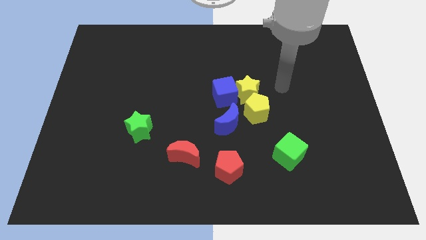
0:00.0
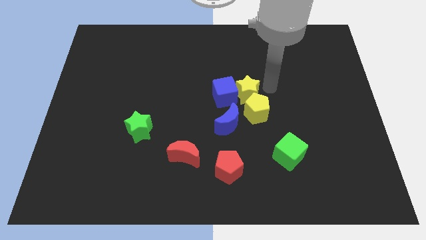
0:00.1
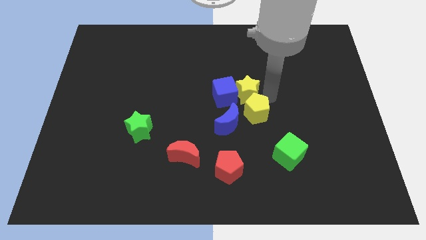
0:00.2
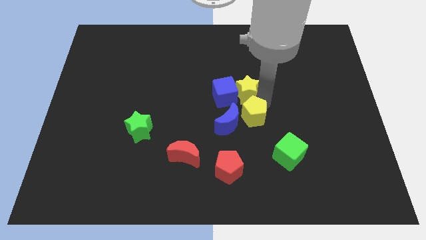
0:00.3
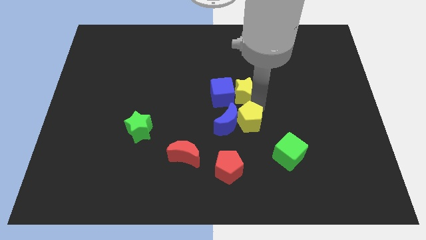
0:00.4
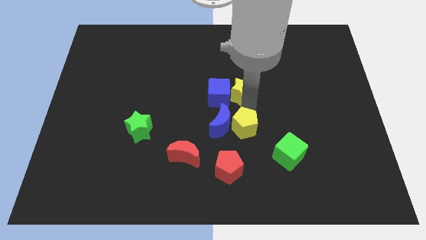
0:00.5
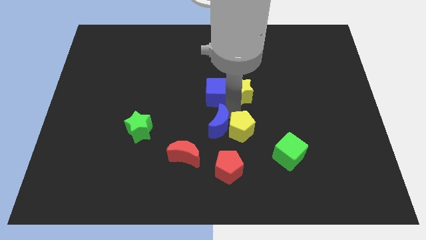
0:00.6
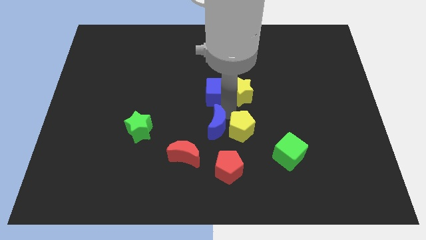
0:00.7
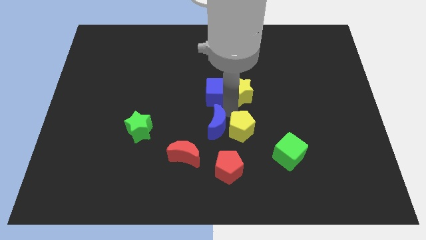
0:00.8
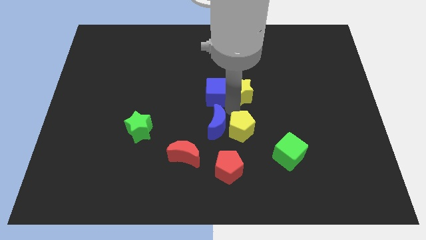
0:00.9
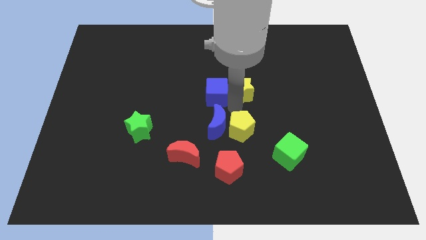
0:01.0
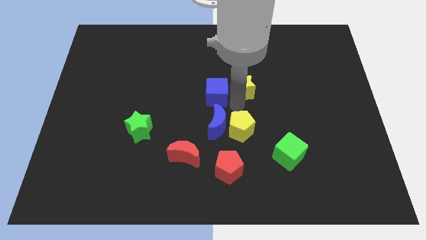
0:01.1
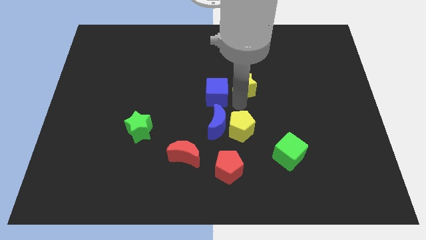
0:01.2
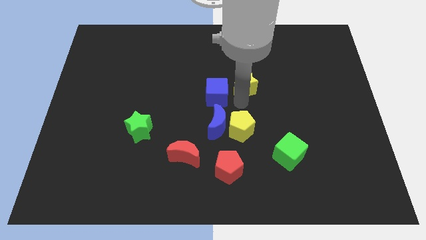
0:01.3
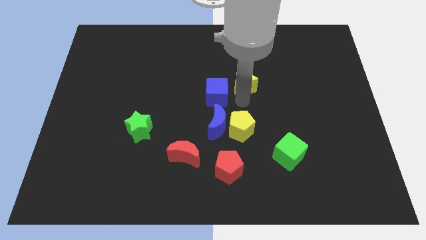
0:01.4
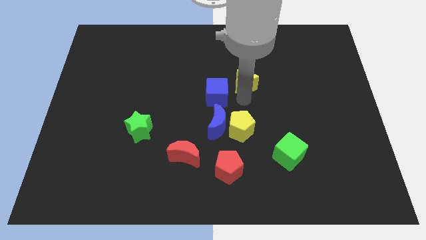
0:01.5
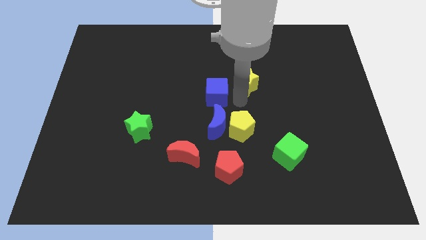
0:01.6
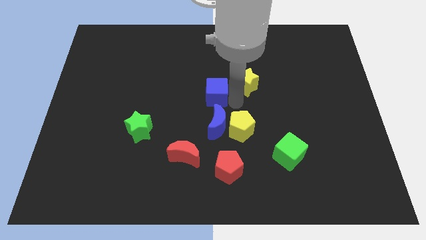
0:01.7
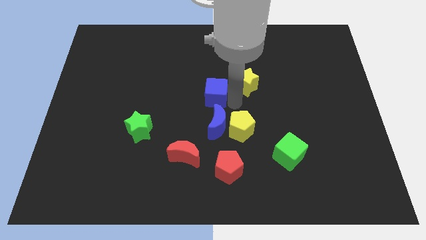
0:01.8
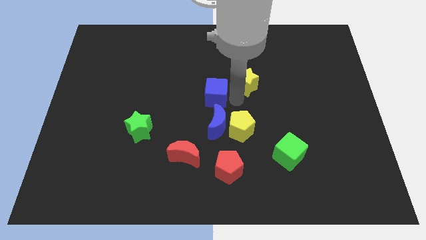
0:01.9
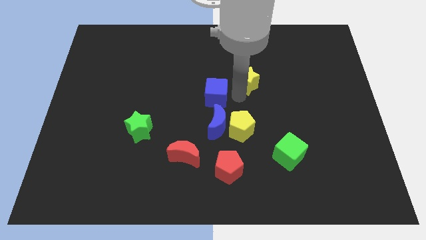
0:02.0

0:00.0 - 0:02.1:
move the yellow star away from the blue cube and yellow pentagon

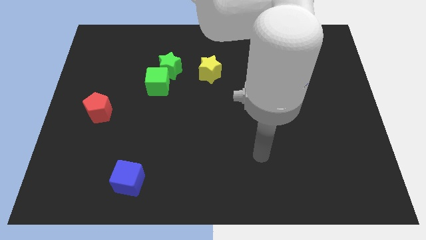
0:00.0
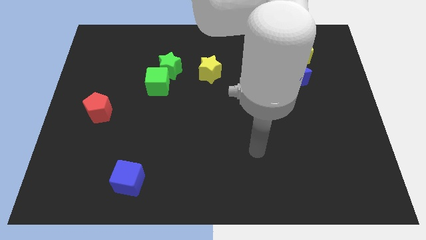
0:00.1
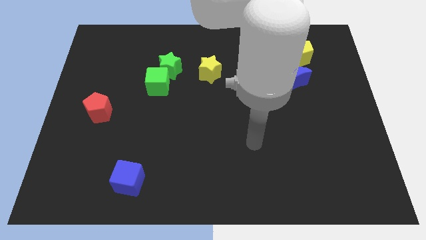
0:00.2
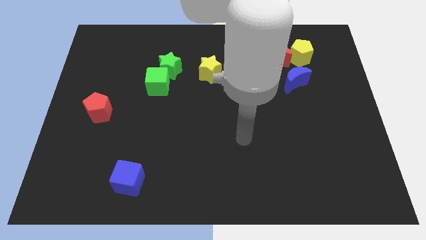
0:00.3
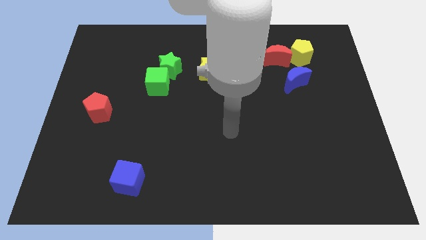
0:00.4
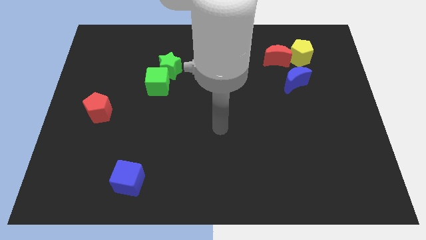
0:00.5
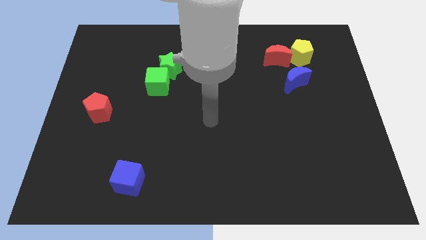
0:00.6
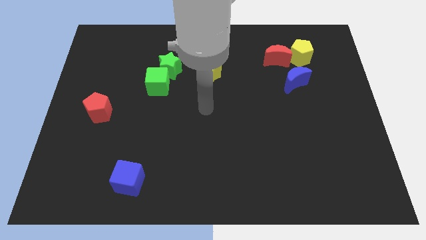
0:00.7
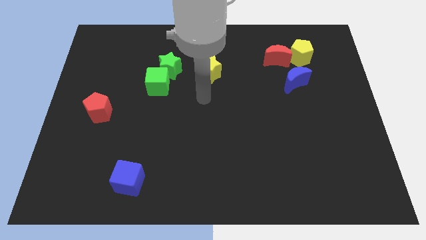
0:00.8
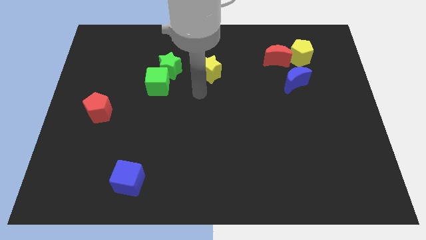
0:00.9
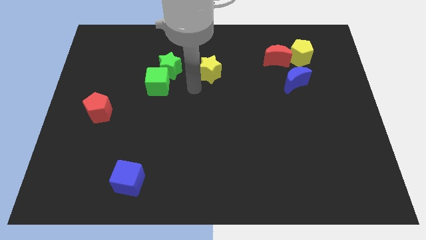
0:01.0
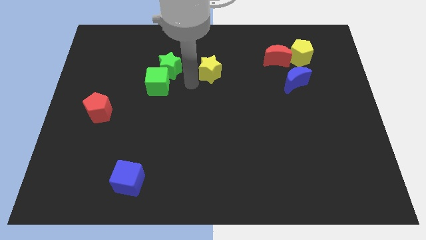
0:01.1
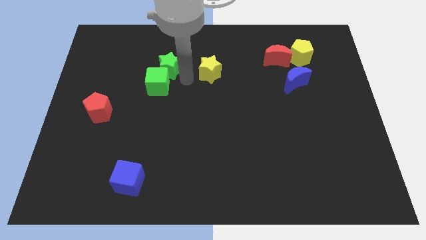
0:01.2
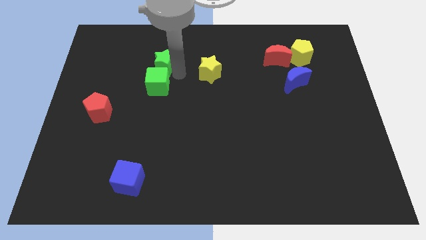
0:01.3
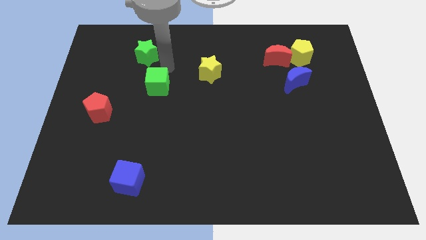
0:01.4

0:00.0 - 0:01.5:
move the green cube away from the green star

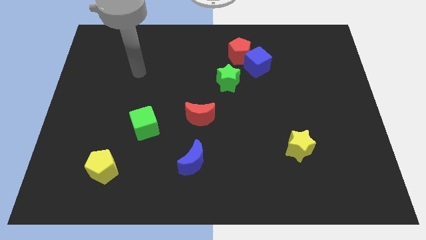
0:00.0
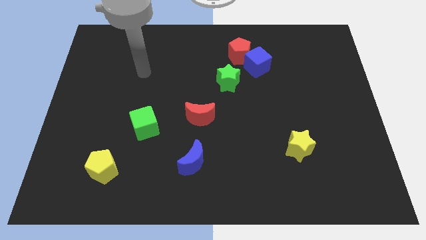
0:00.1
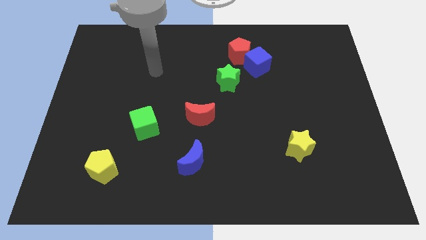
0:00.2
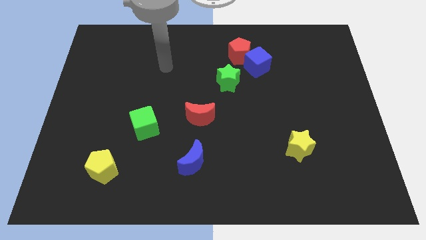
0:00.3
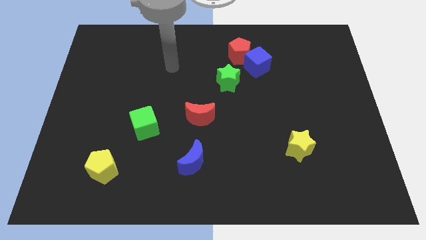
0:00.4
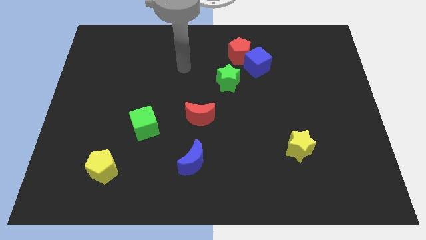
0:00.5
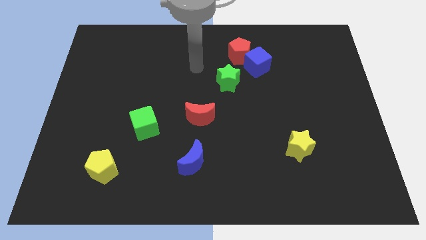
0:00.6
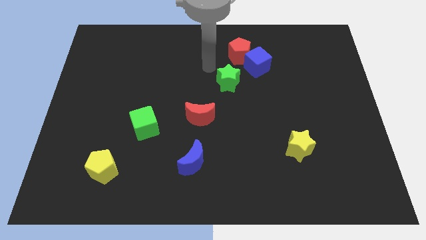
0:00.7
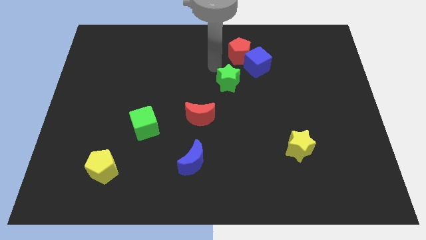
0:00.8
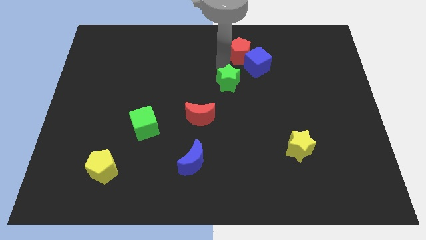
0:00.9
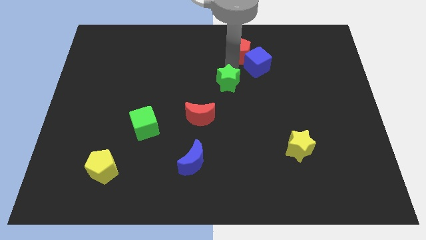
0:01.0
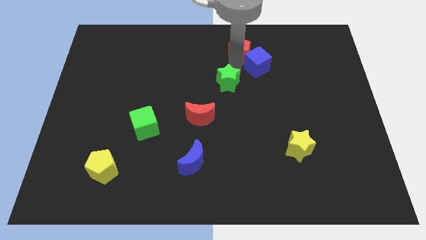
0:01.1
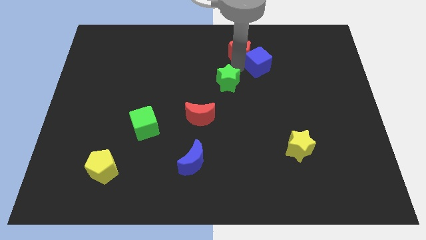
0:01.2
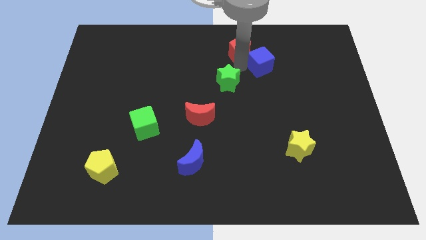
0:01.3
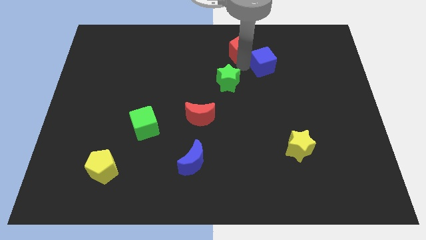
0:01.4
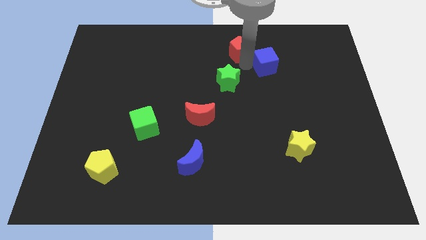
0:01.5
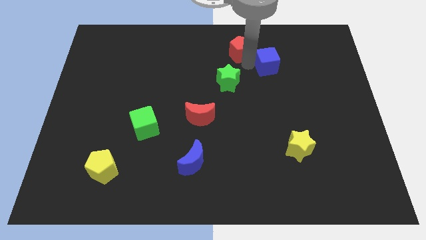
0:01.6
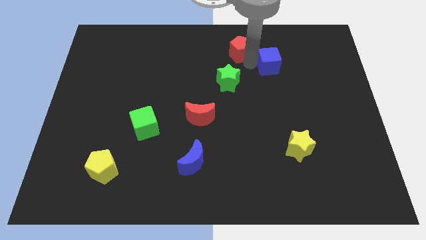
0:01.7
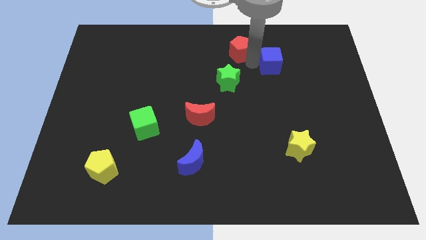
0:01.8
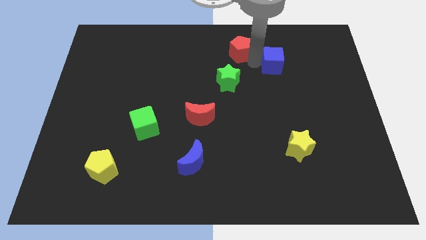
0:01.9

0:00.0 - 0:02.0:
pull the blue cube apart from the red pentagon and green star

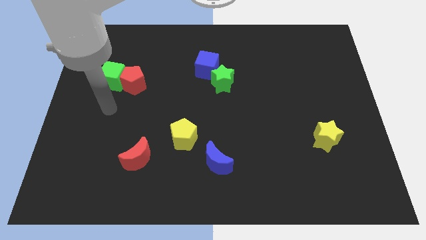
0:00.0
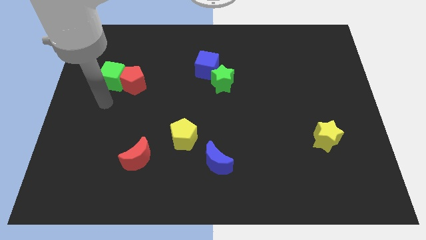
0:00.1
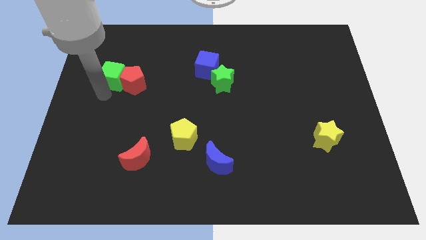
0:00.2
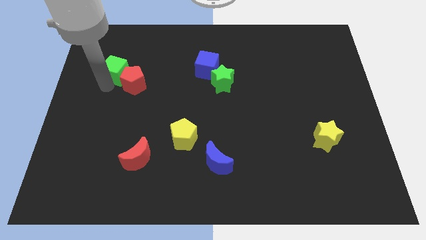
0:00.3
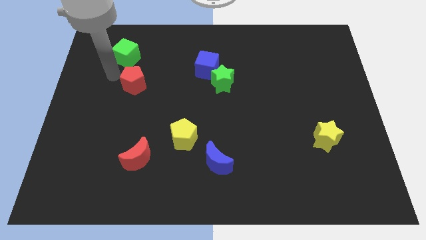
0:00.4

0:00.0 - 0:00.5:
move the red pentagon away from the green cube

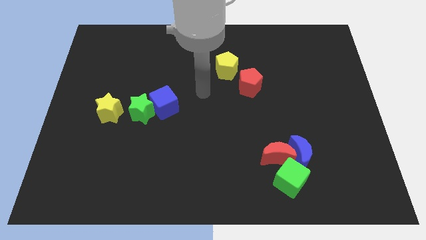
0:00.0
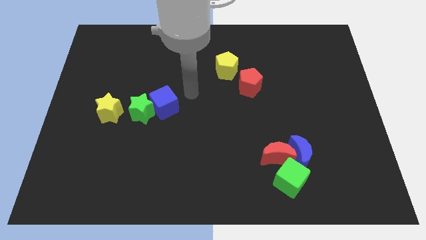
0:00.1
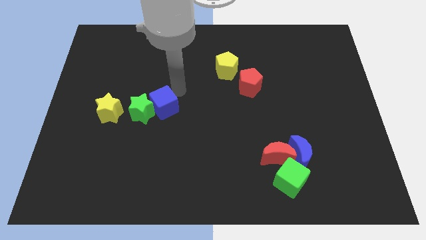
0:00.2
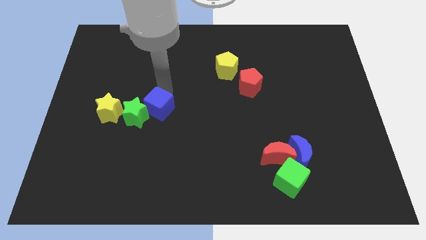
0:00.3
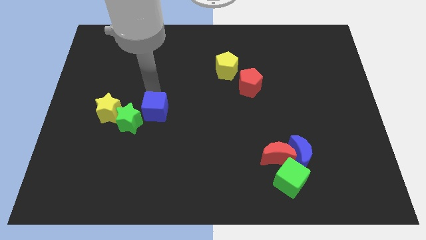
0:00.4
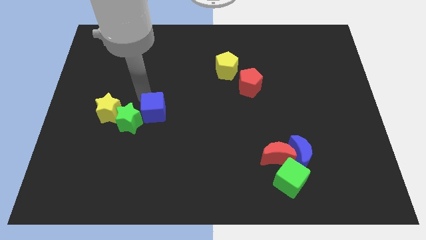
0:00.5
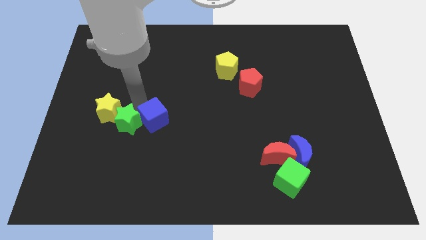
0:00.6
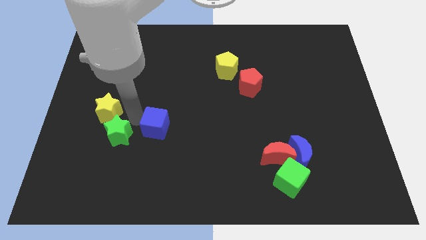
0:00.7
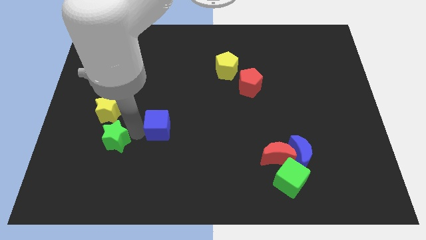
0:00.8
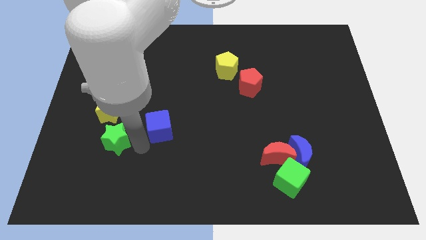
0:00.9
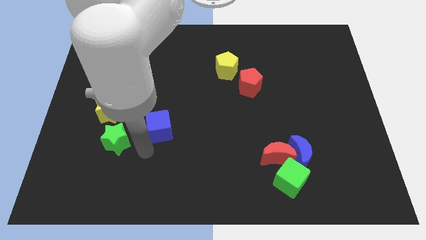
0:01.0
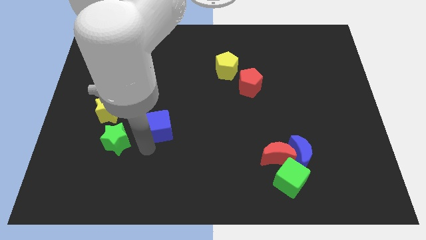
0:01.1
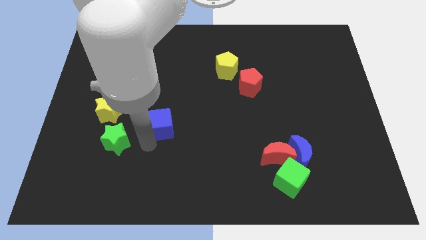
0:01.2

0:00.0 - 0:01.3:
separate the blue cube from the green star

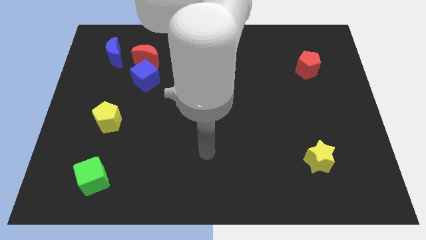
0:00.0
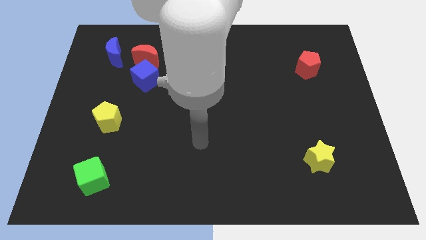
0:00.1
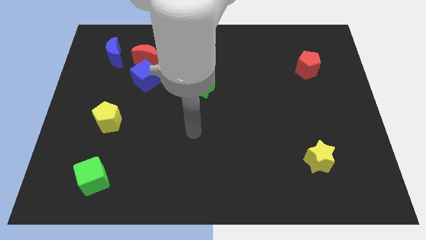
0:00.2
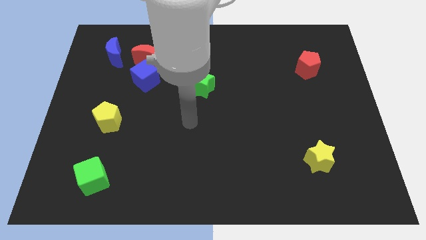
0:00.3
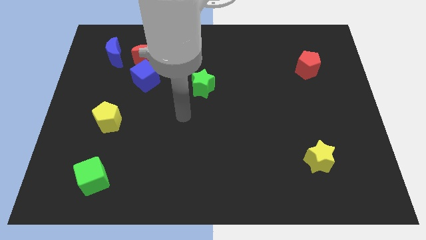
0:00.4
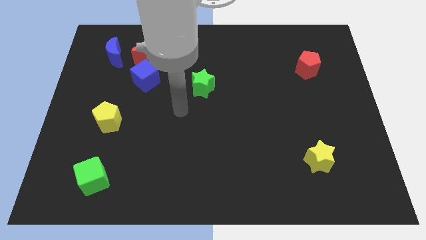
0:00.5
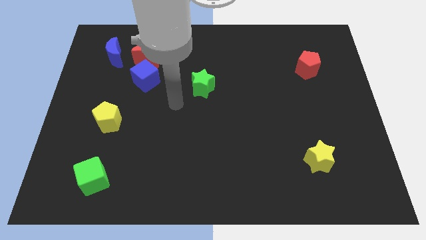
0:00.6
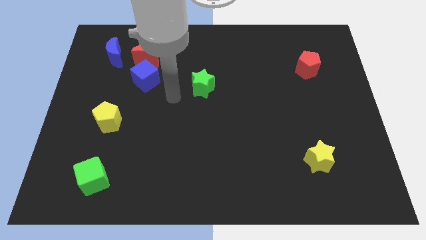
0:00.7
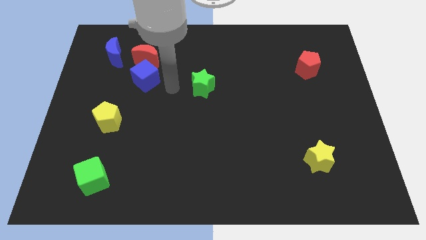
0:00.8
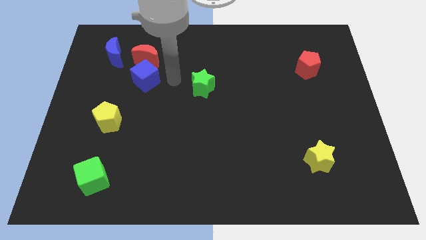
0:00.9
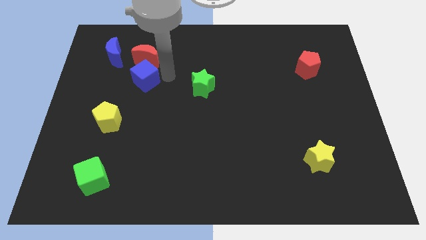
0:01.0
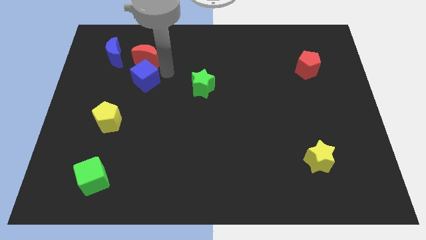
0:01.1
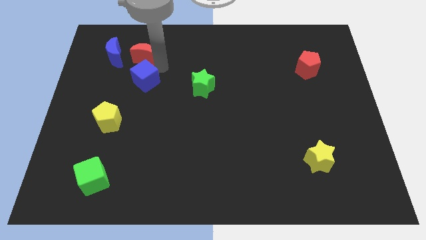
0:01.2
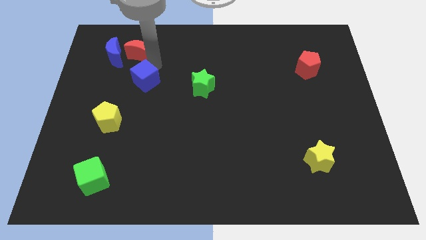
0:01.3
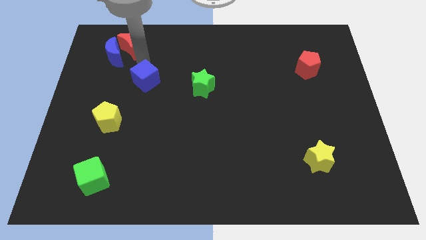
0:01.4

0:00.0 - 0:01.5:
pull the blue cube apart from the red moon

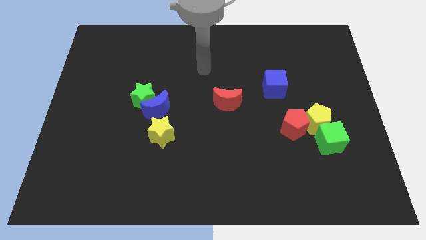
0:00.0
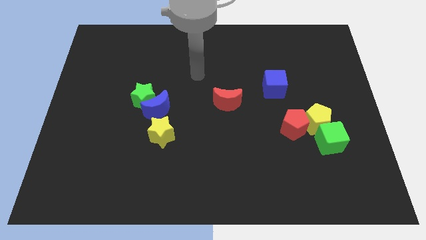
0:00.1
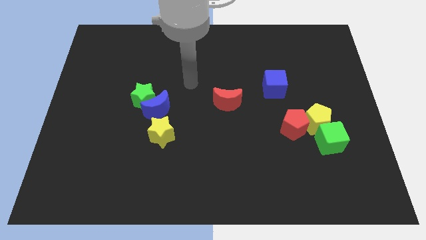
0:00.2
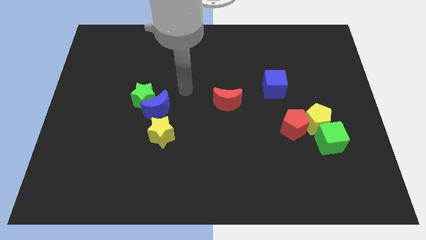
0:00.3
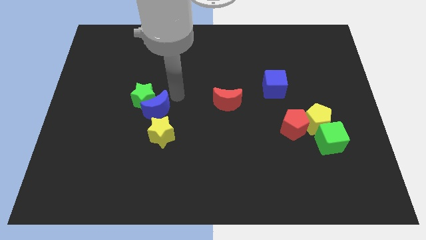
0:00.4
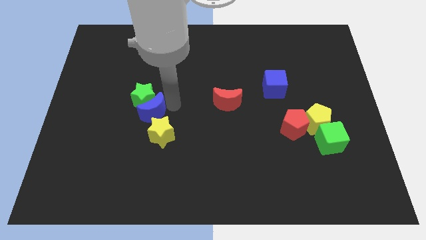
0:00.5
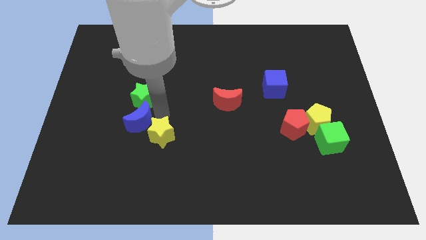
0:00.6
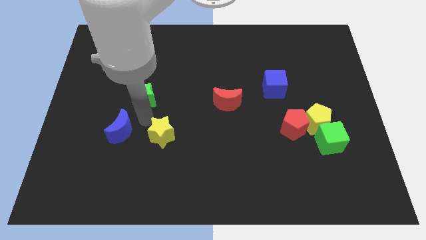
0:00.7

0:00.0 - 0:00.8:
separate the green star from the blue moon
